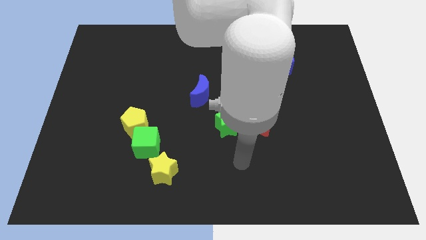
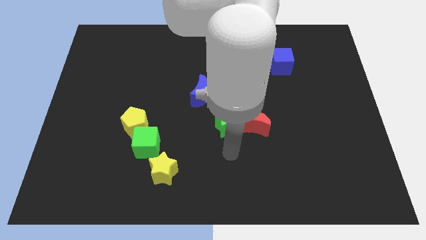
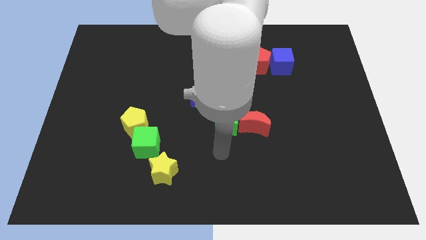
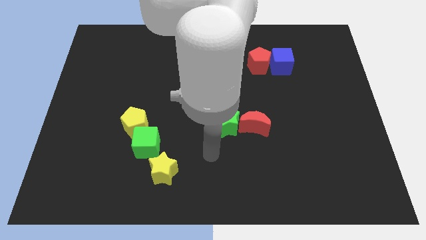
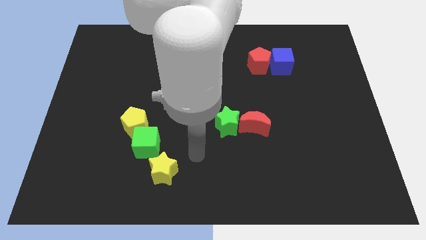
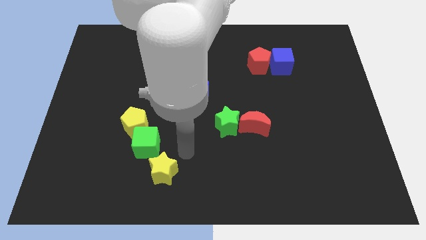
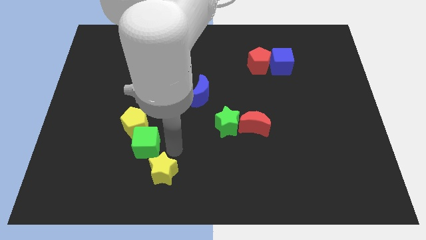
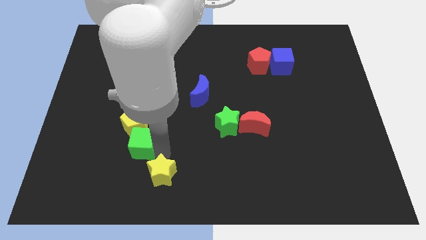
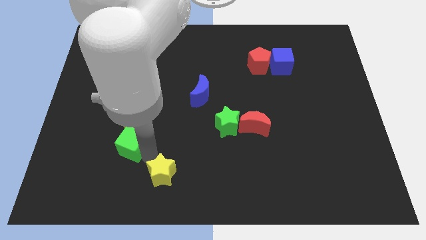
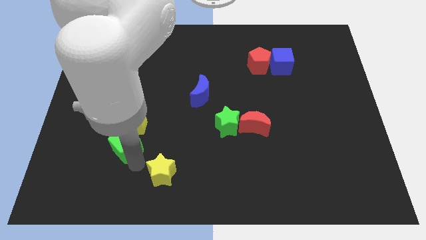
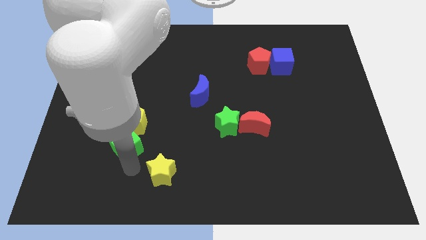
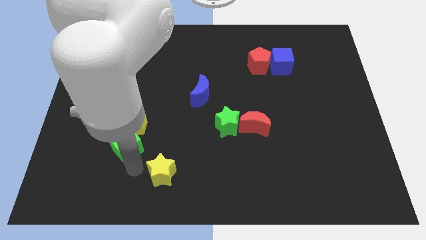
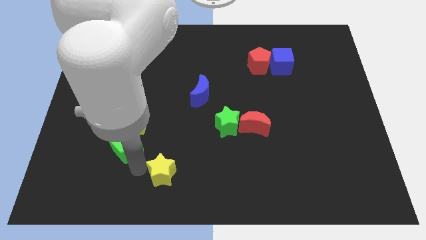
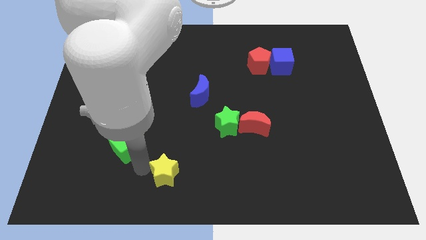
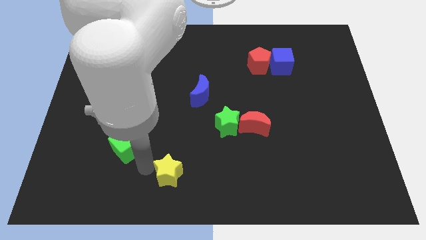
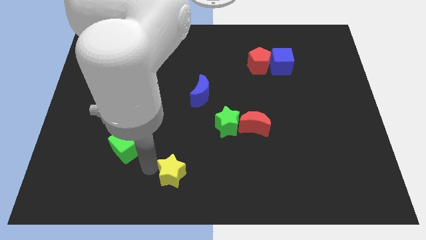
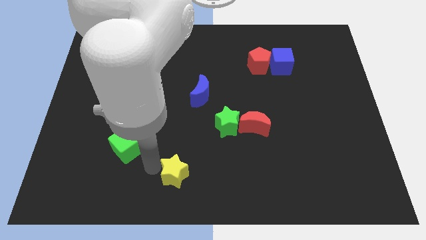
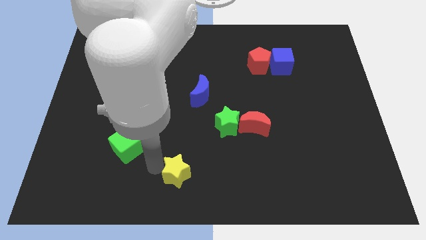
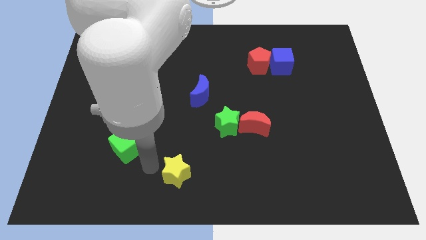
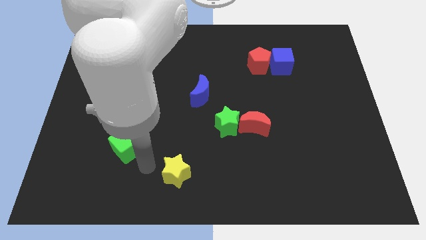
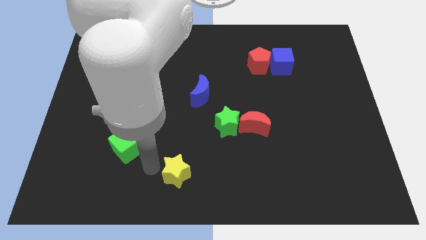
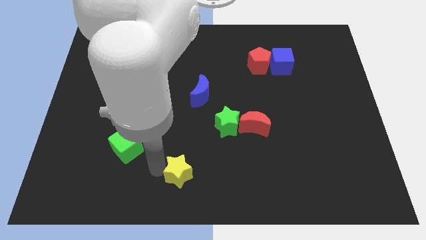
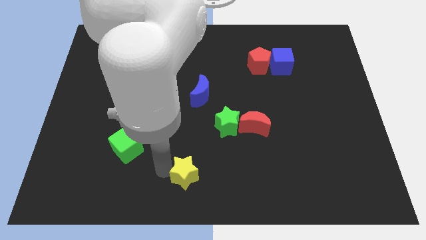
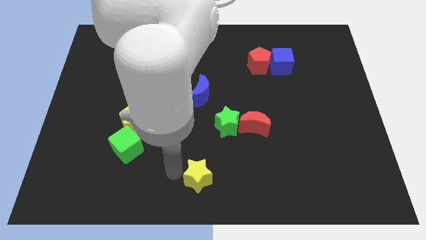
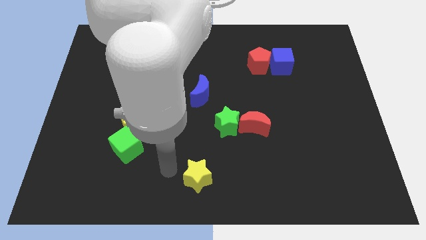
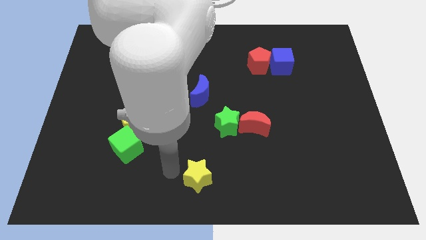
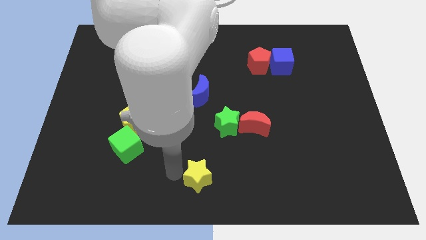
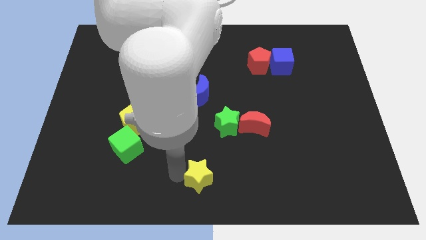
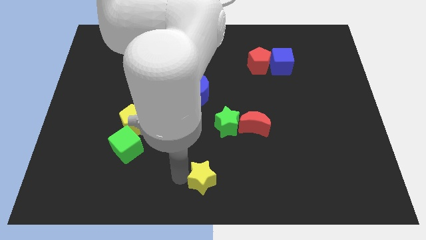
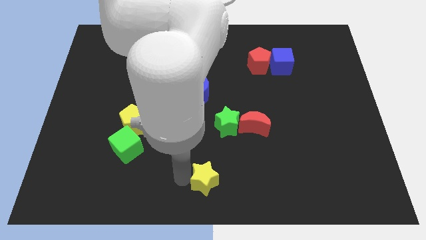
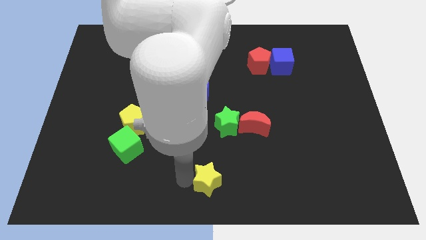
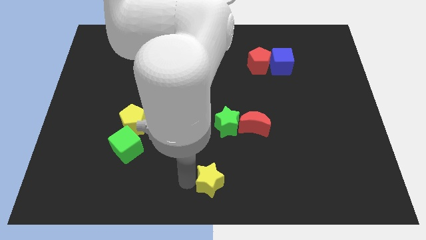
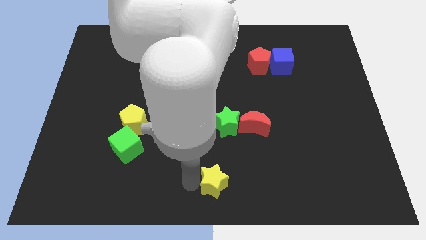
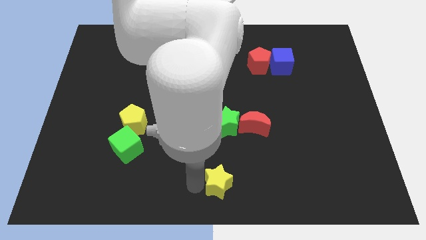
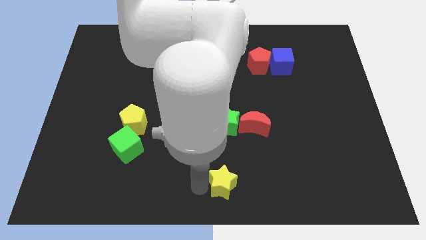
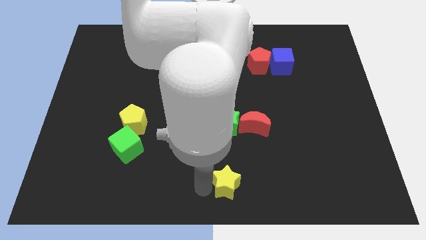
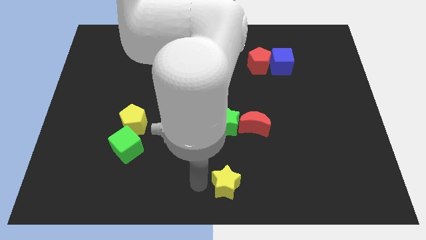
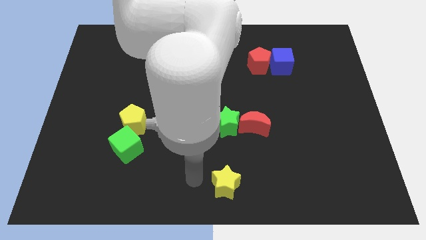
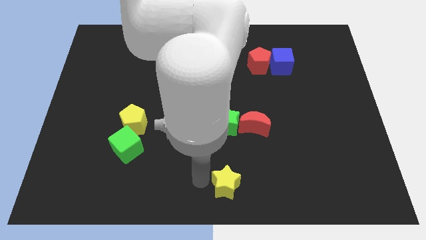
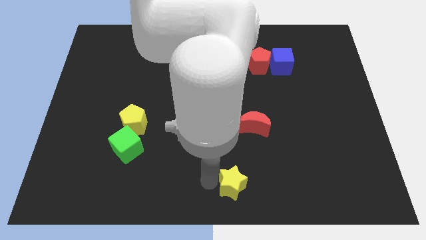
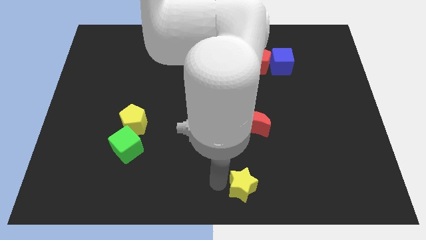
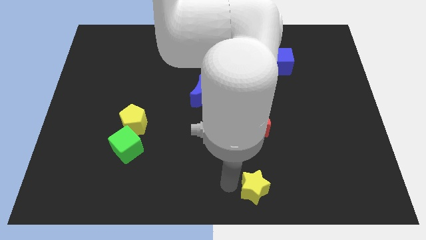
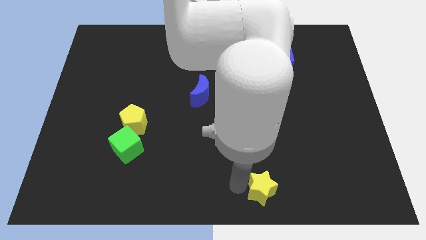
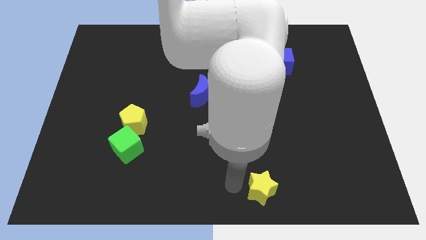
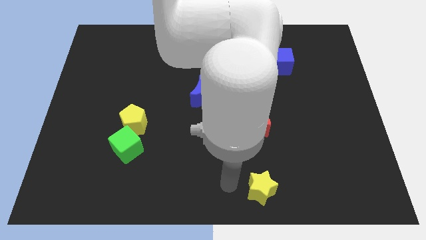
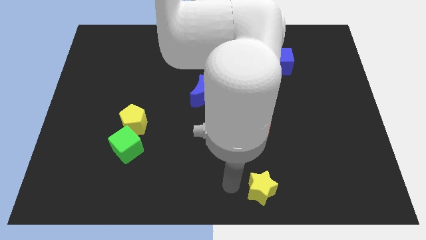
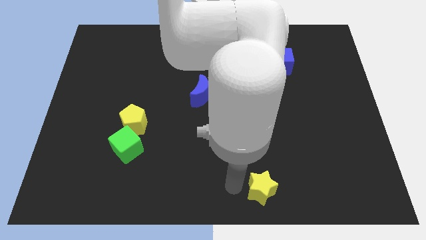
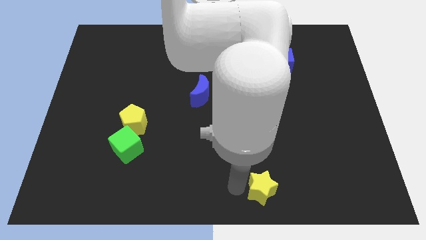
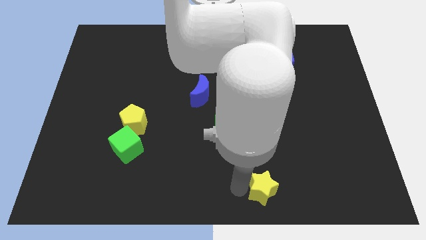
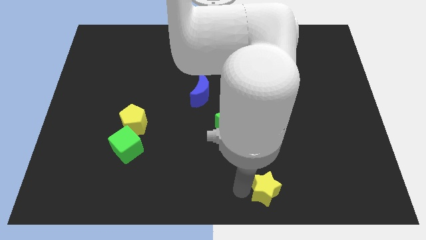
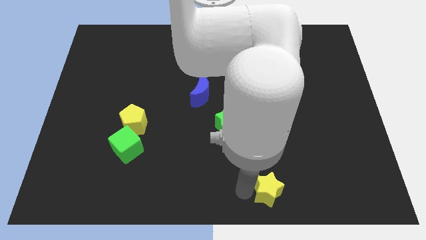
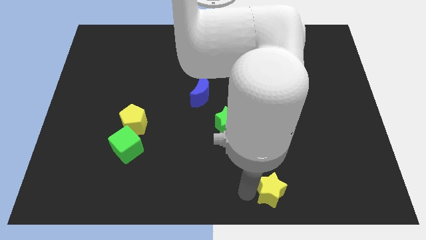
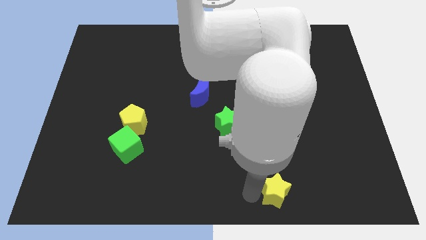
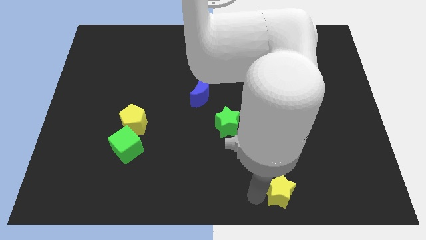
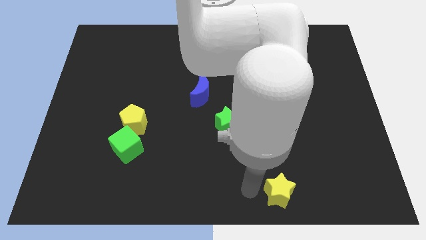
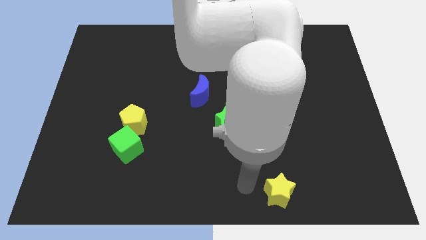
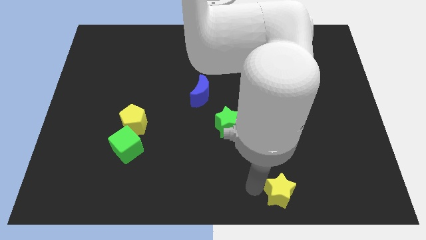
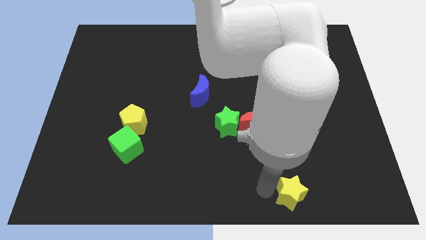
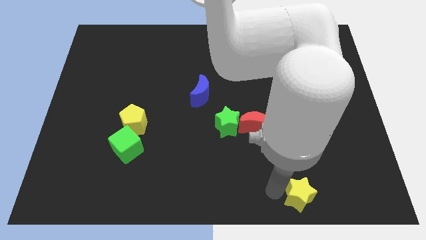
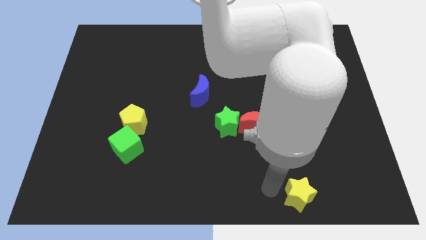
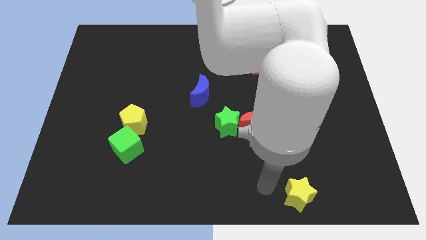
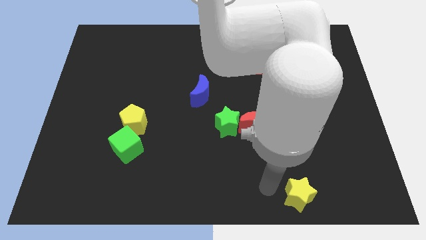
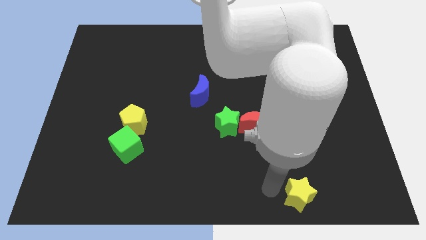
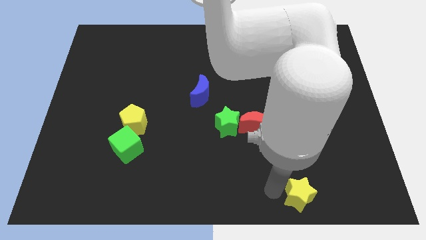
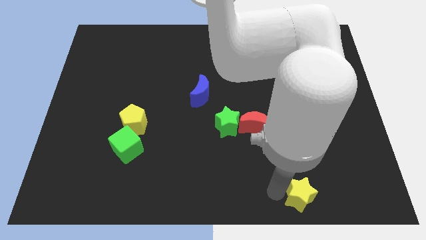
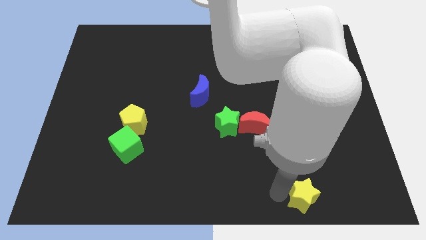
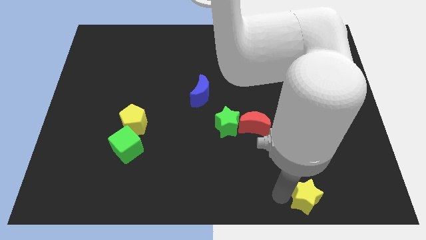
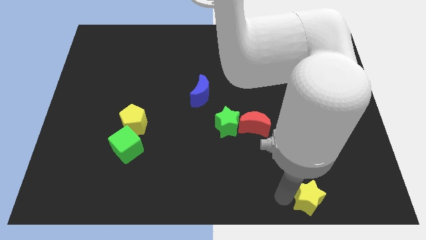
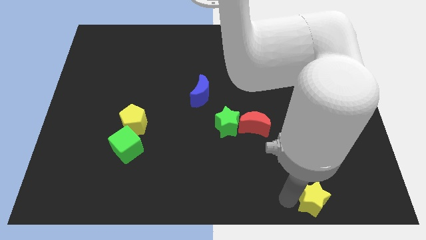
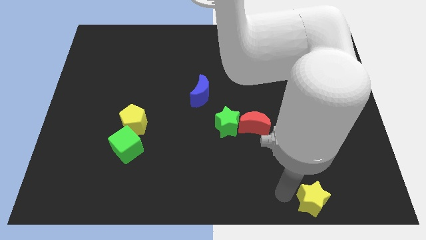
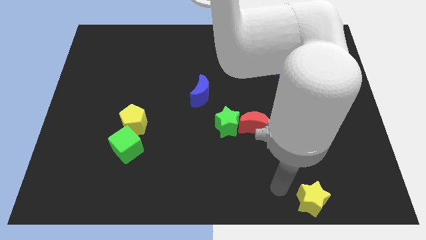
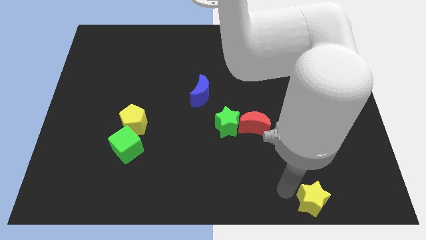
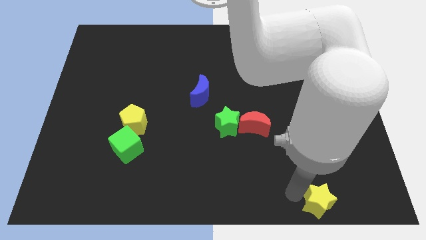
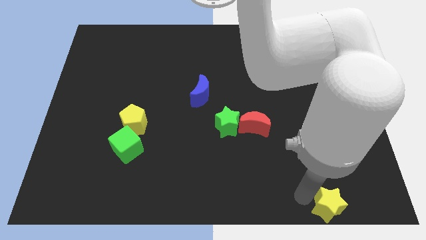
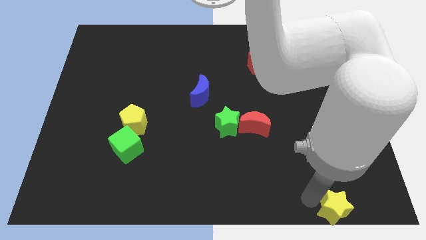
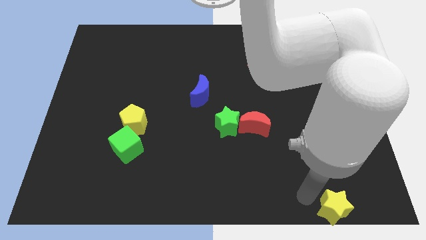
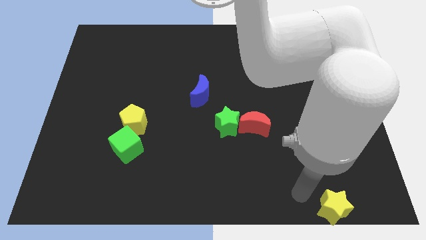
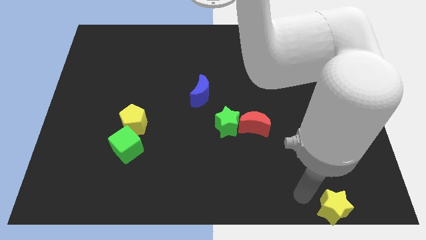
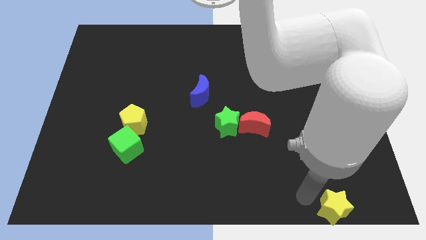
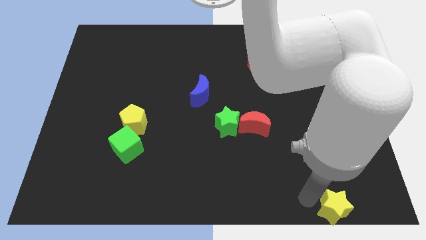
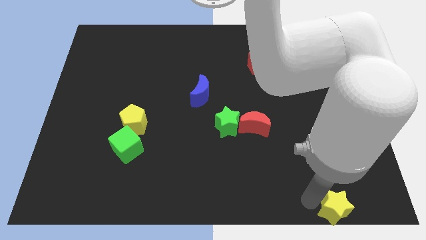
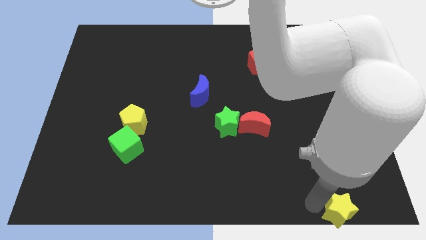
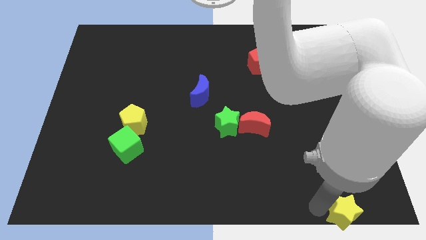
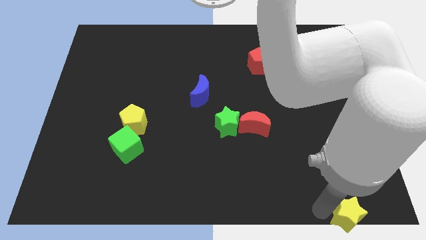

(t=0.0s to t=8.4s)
move the yellow star to the bottom right
